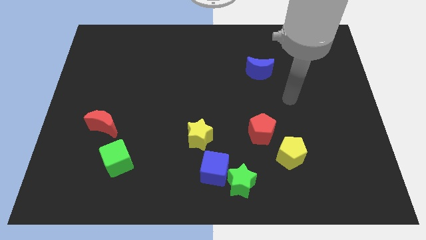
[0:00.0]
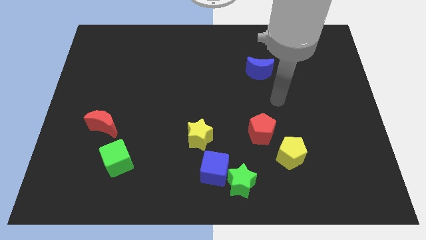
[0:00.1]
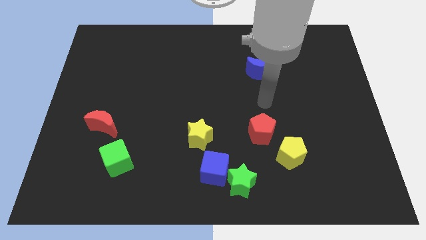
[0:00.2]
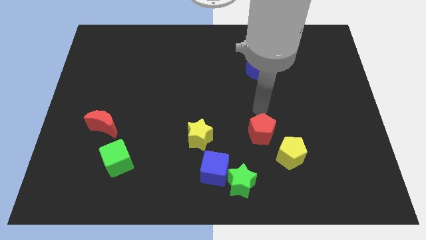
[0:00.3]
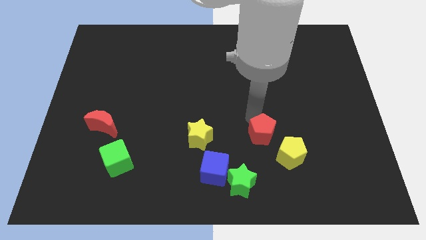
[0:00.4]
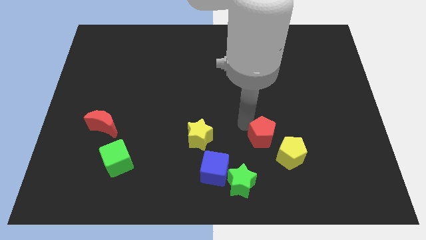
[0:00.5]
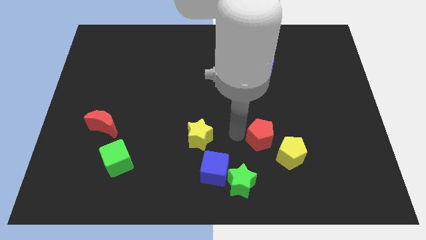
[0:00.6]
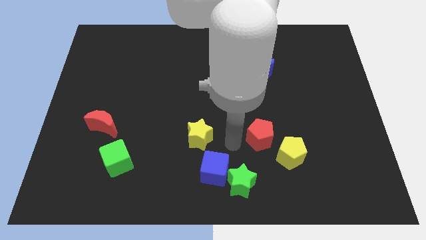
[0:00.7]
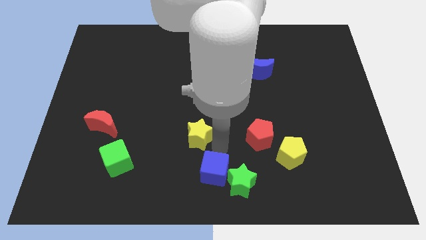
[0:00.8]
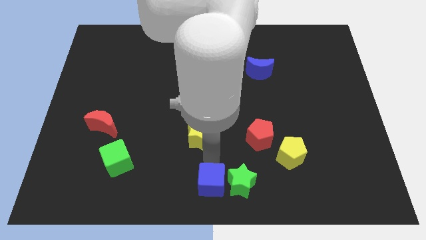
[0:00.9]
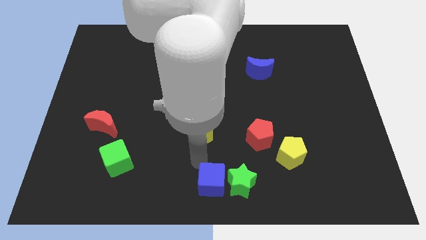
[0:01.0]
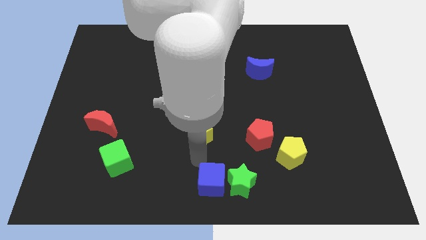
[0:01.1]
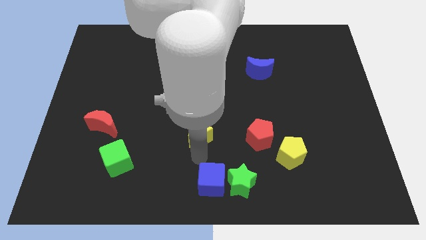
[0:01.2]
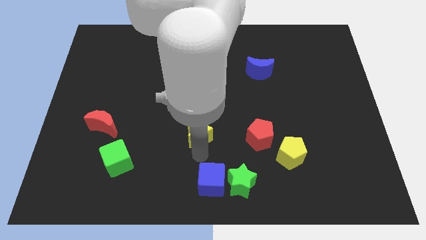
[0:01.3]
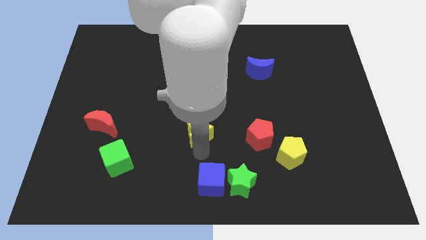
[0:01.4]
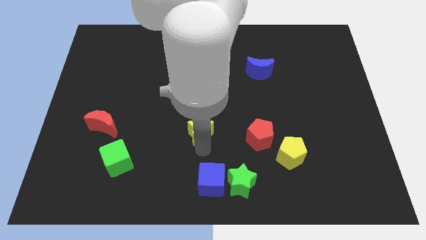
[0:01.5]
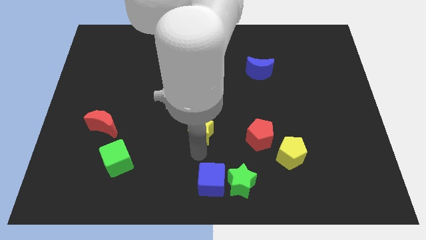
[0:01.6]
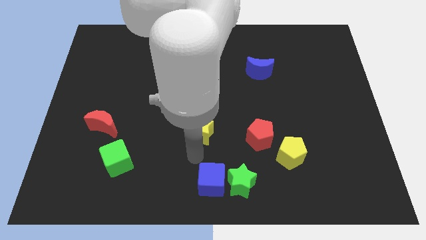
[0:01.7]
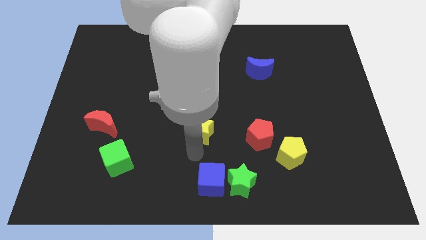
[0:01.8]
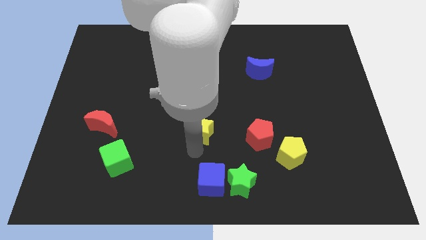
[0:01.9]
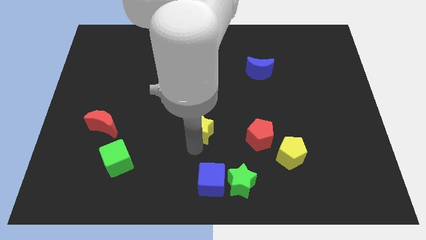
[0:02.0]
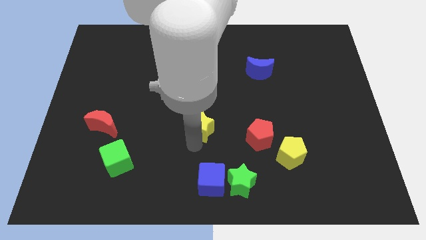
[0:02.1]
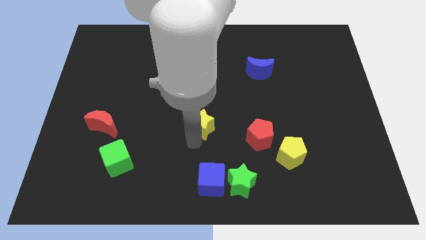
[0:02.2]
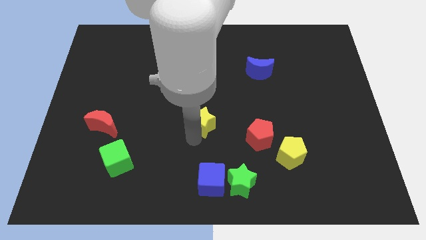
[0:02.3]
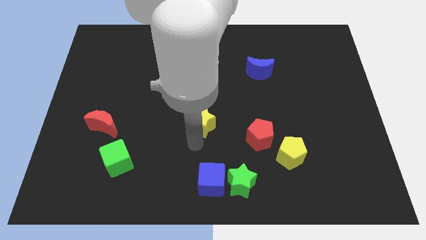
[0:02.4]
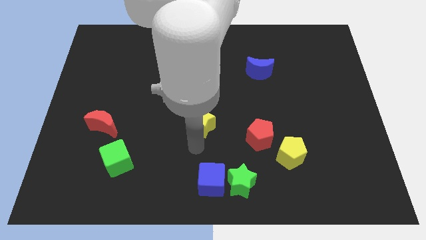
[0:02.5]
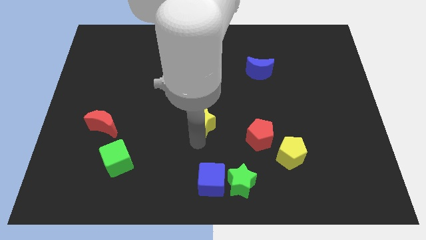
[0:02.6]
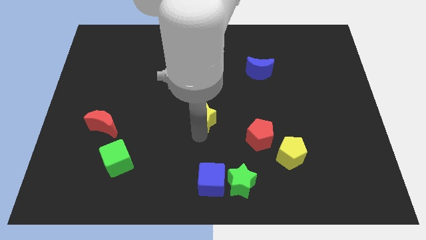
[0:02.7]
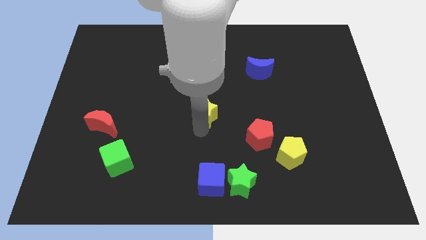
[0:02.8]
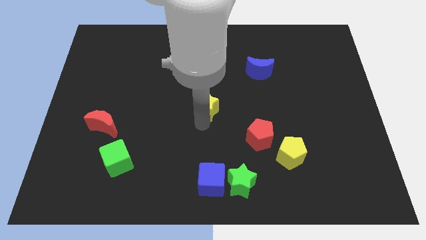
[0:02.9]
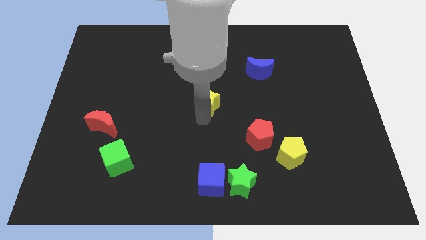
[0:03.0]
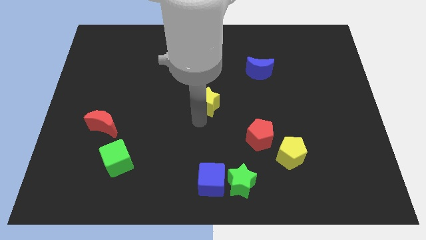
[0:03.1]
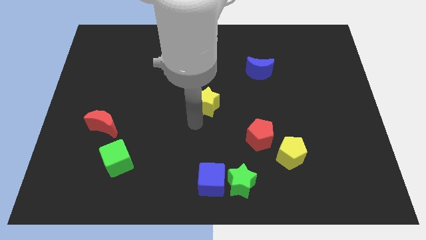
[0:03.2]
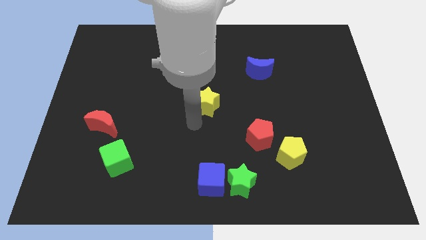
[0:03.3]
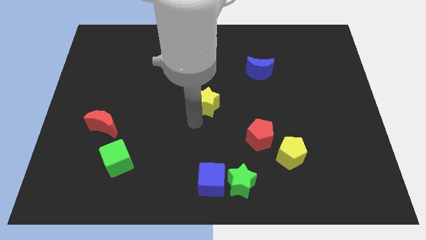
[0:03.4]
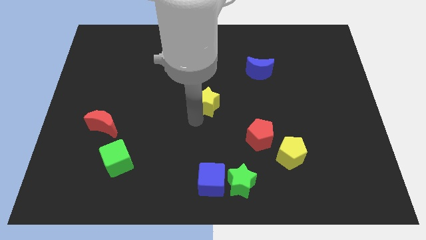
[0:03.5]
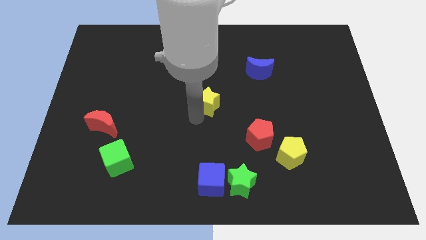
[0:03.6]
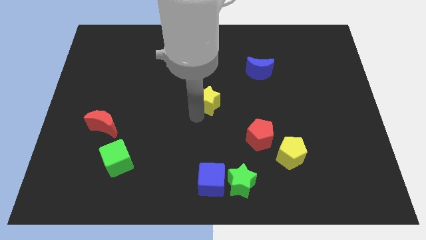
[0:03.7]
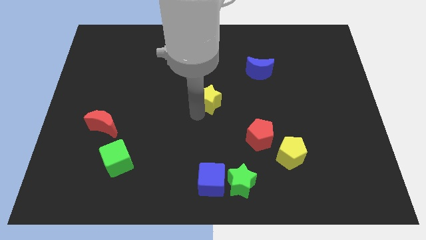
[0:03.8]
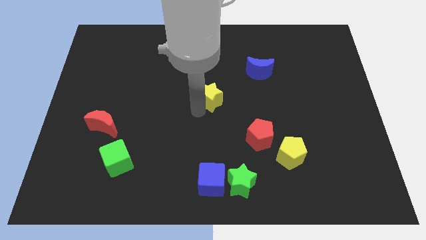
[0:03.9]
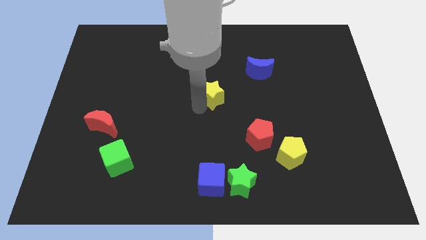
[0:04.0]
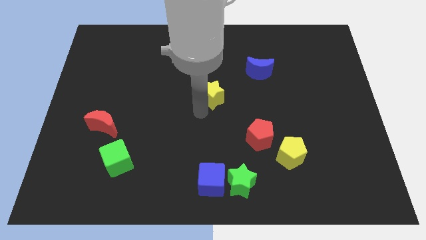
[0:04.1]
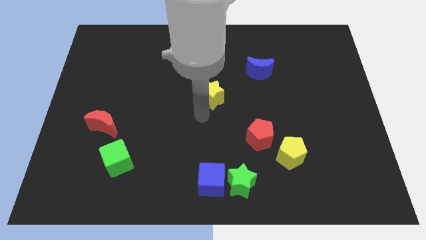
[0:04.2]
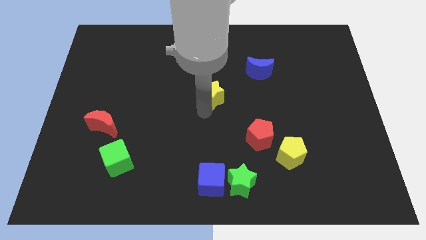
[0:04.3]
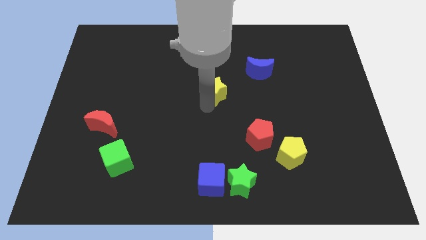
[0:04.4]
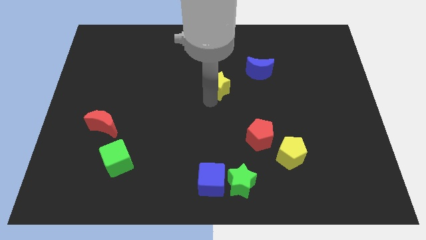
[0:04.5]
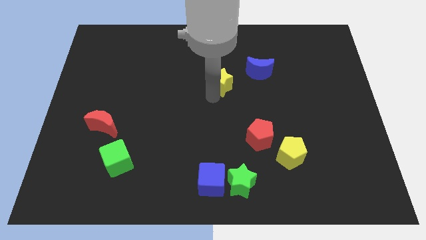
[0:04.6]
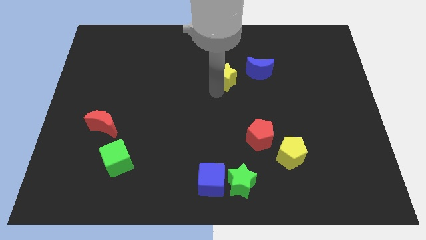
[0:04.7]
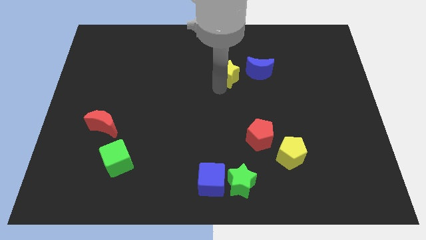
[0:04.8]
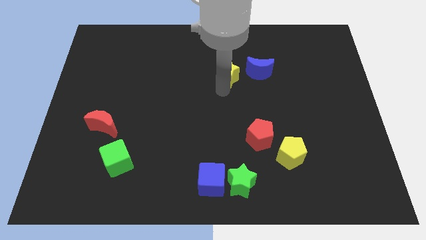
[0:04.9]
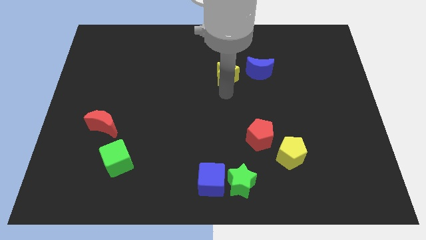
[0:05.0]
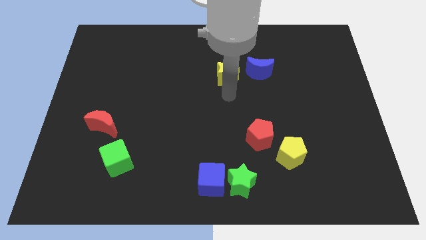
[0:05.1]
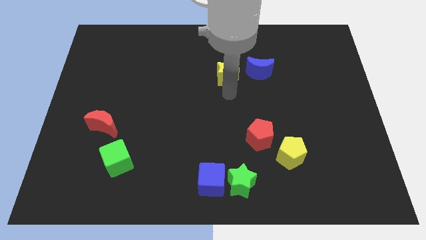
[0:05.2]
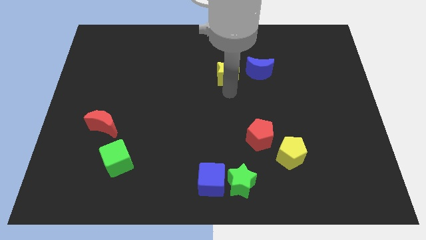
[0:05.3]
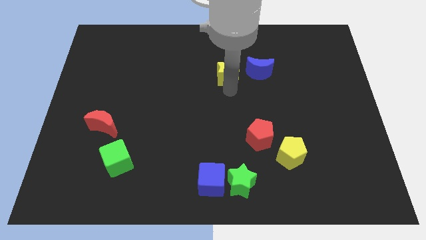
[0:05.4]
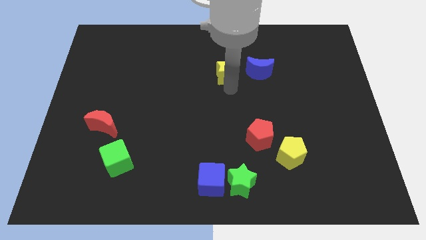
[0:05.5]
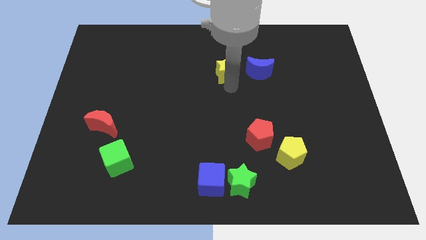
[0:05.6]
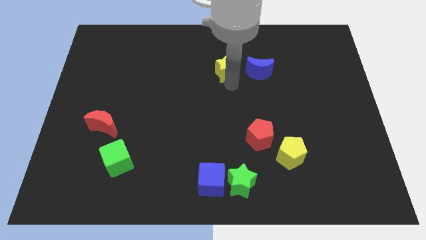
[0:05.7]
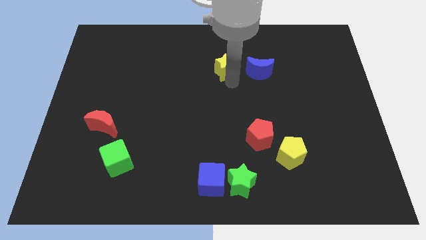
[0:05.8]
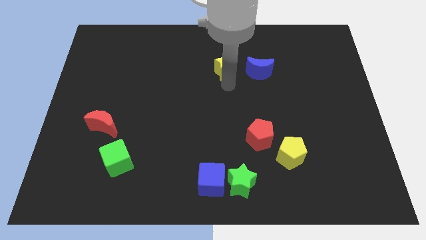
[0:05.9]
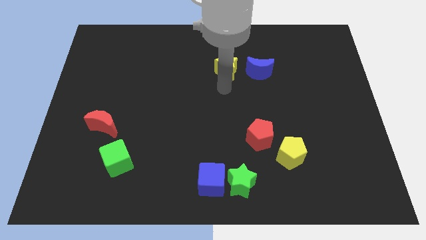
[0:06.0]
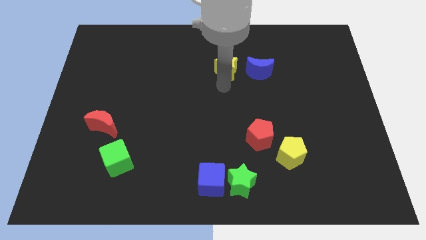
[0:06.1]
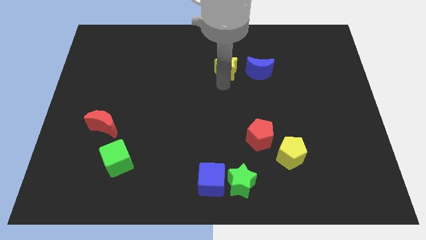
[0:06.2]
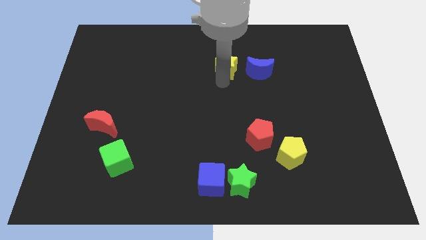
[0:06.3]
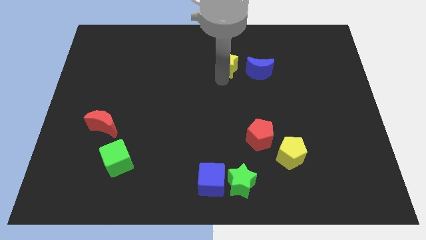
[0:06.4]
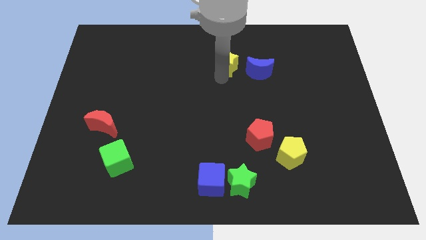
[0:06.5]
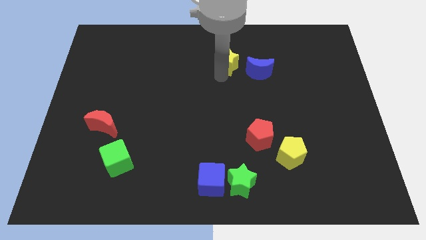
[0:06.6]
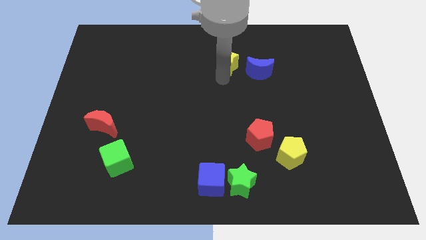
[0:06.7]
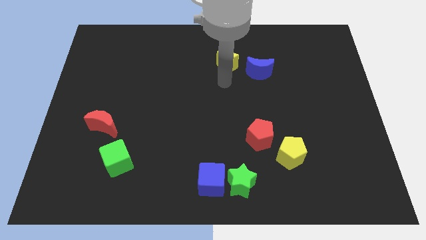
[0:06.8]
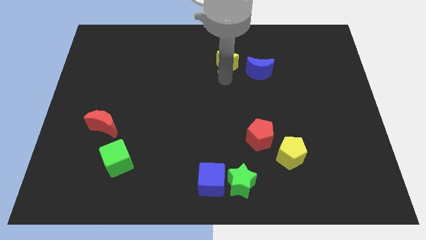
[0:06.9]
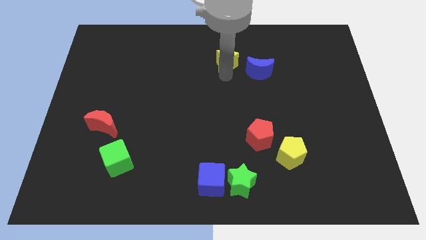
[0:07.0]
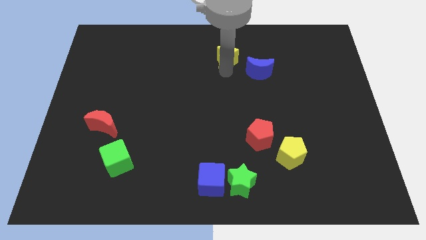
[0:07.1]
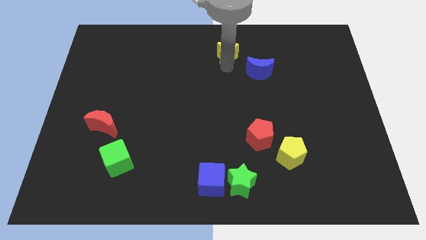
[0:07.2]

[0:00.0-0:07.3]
slide the yellow star to the top
